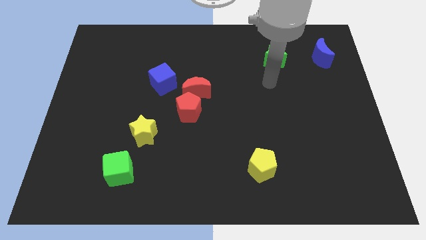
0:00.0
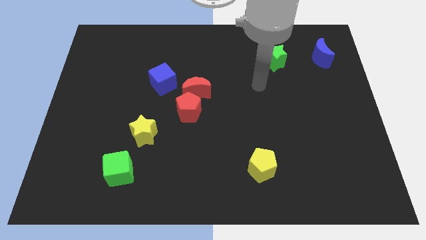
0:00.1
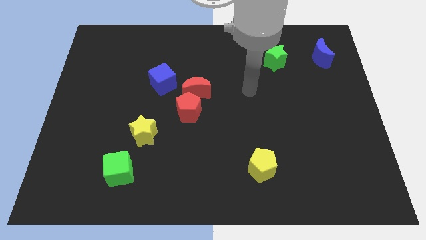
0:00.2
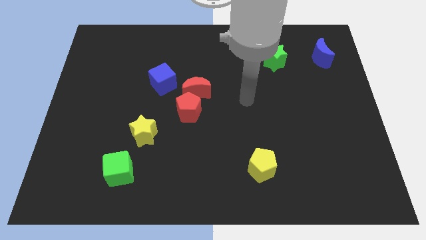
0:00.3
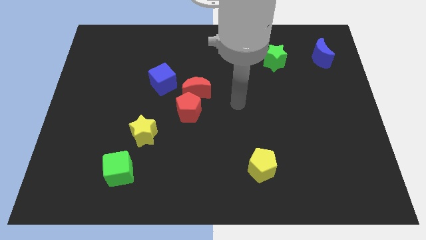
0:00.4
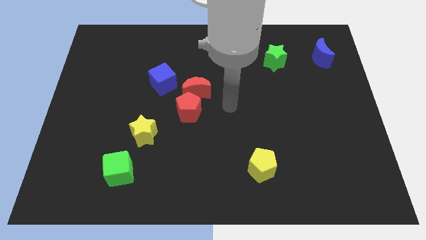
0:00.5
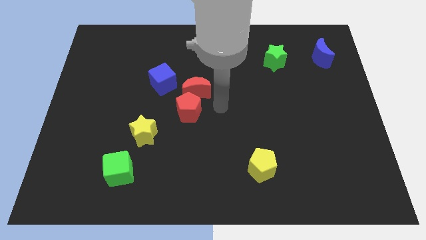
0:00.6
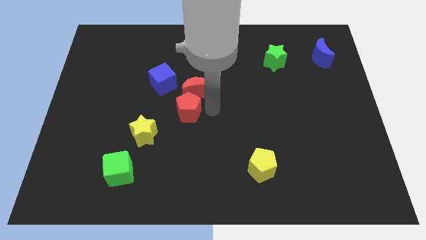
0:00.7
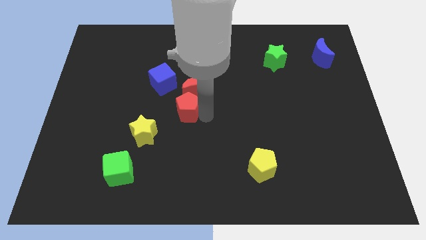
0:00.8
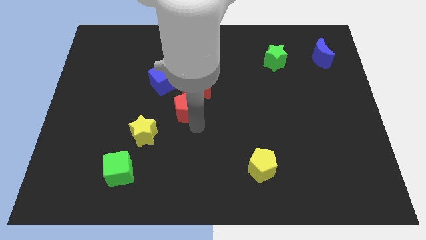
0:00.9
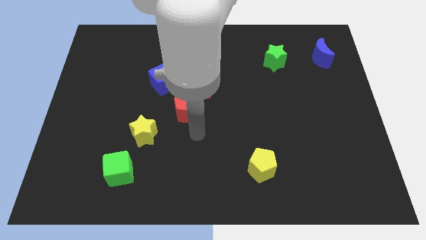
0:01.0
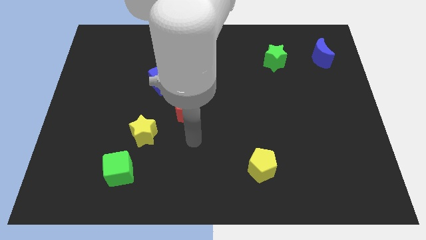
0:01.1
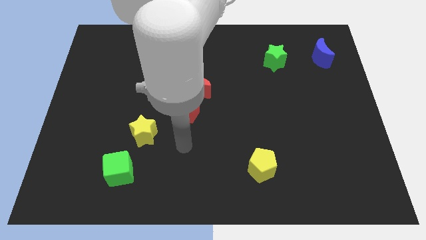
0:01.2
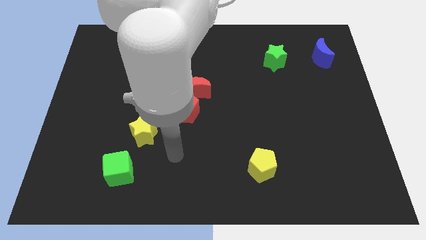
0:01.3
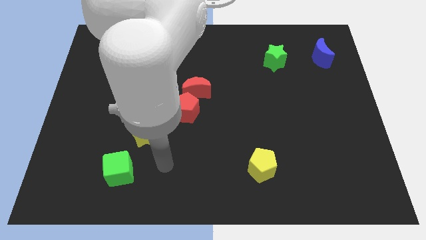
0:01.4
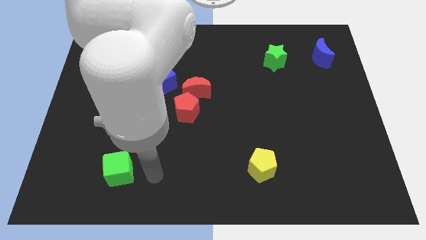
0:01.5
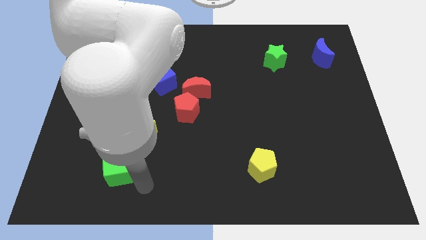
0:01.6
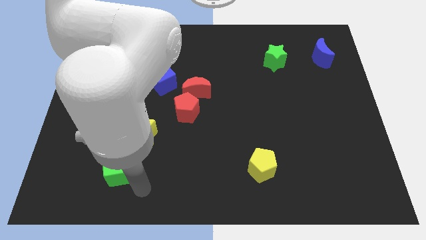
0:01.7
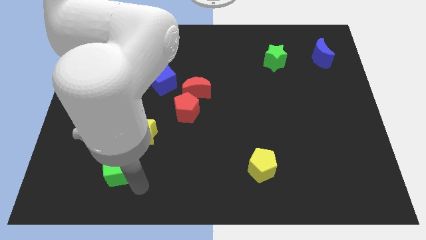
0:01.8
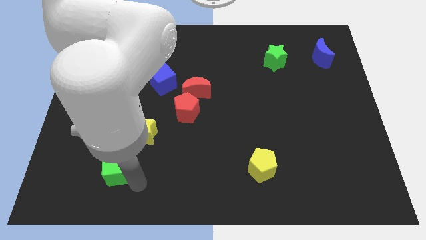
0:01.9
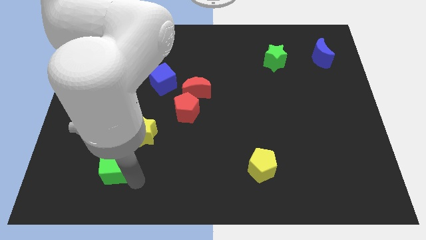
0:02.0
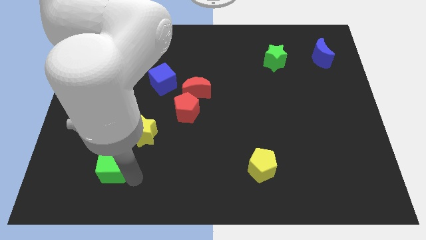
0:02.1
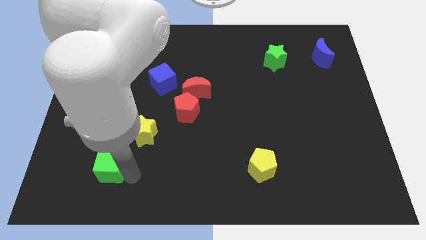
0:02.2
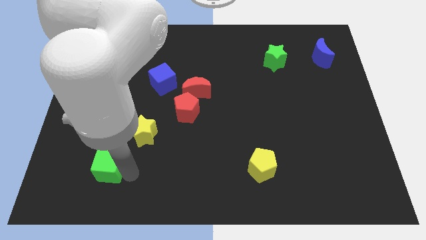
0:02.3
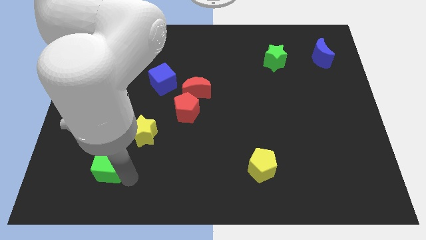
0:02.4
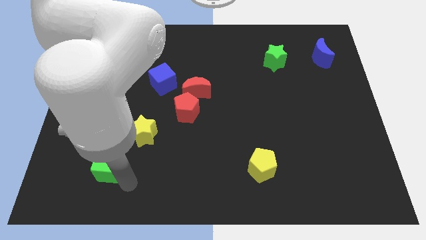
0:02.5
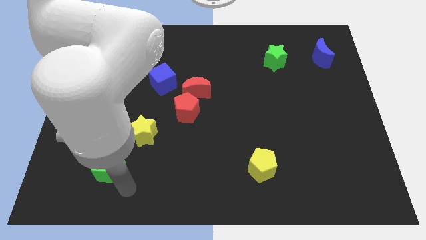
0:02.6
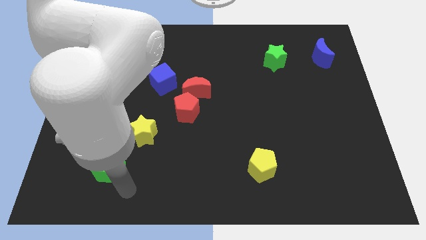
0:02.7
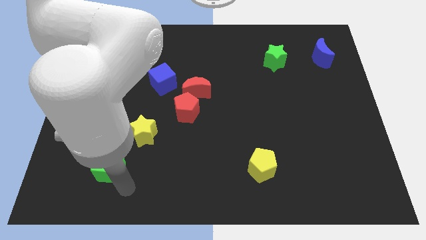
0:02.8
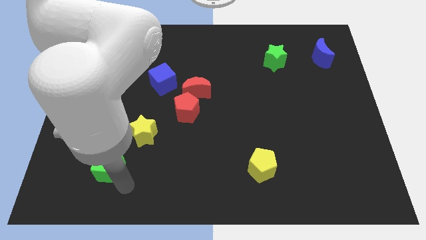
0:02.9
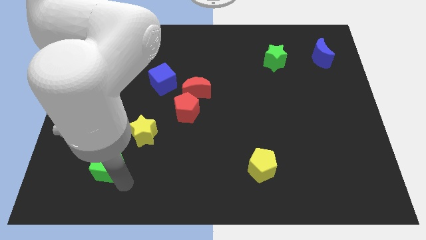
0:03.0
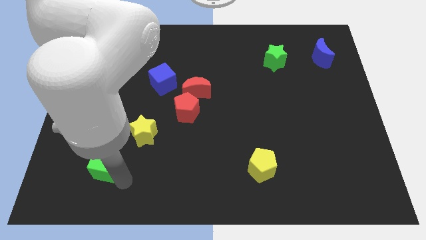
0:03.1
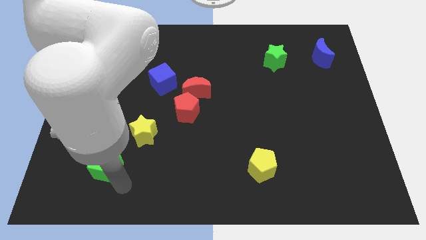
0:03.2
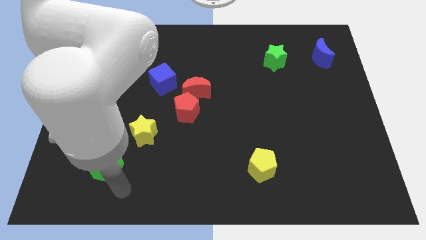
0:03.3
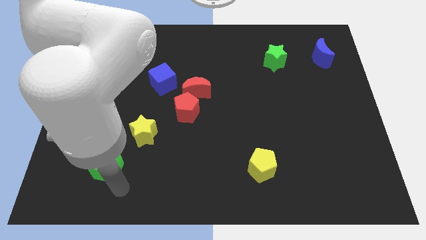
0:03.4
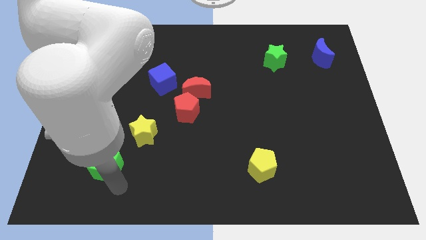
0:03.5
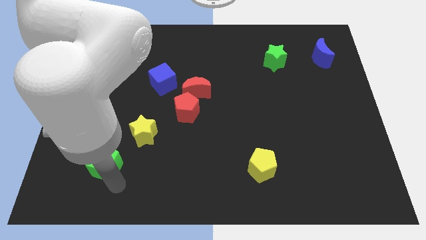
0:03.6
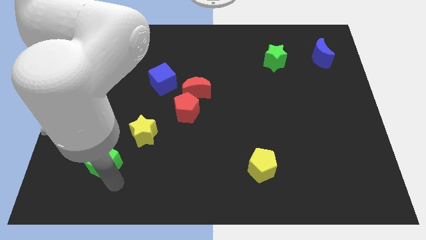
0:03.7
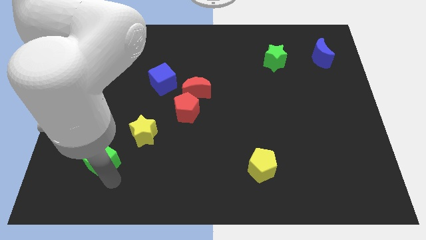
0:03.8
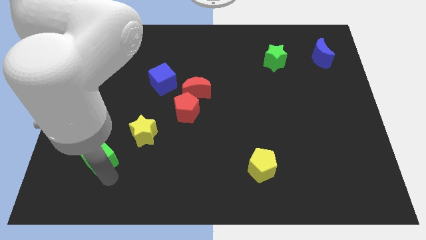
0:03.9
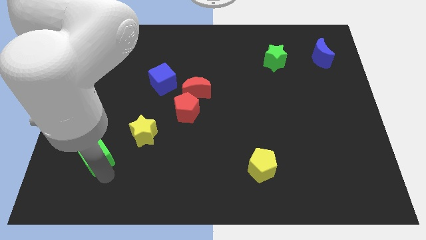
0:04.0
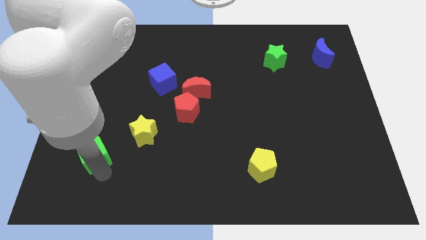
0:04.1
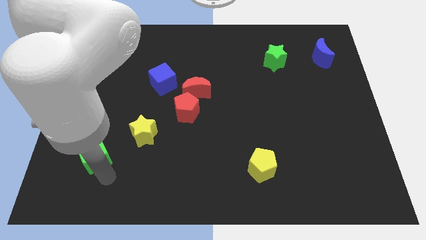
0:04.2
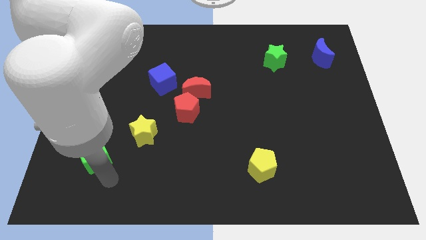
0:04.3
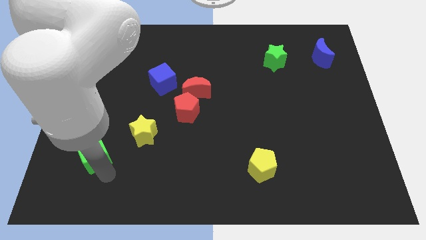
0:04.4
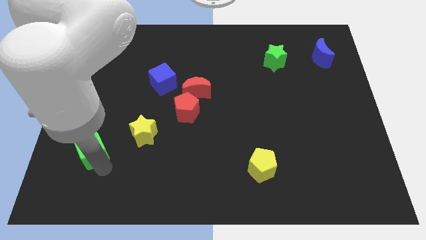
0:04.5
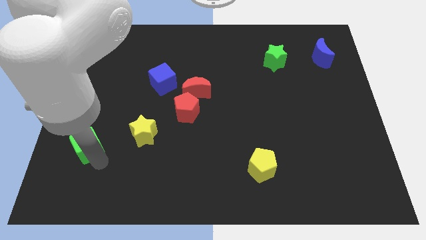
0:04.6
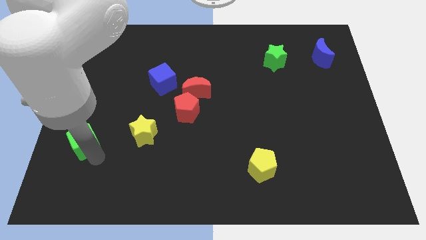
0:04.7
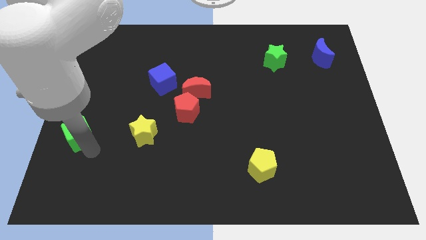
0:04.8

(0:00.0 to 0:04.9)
put the green cube to the center left

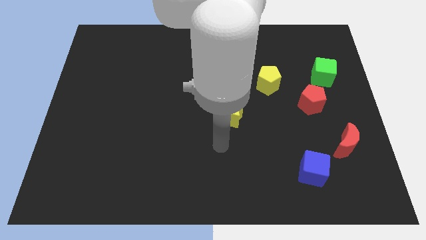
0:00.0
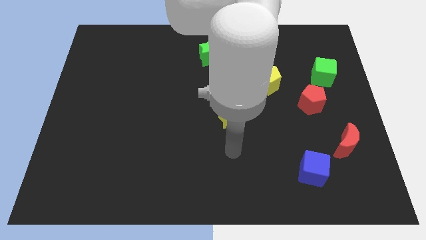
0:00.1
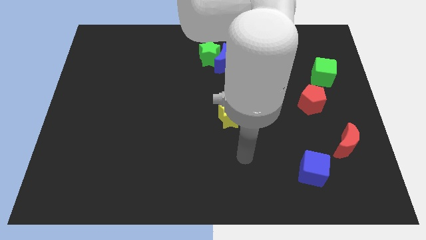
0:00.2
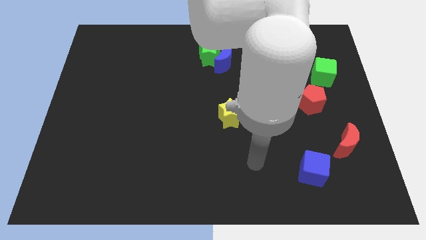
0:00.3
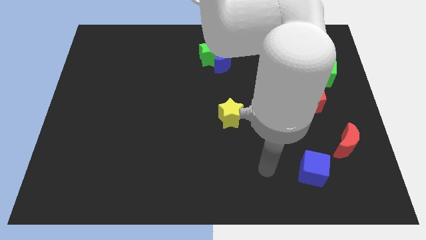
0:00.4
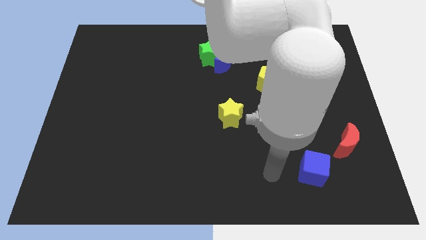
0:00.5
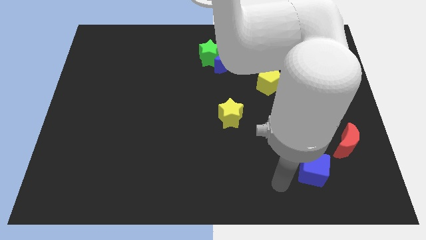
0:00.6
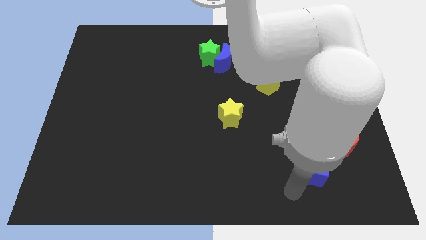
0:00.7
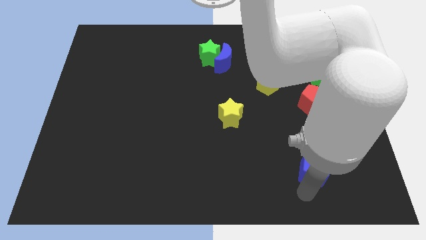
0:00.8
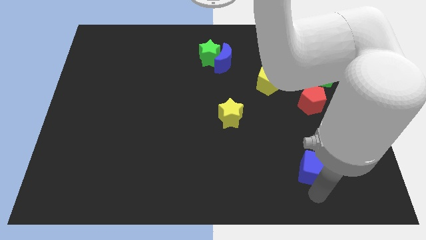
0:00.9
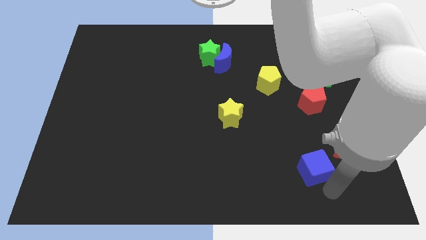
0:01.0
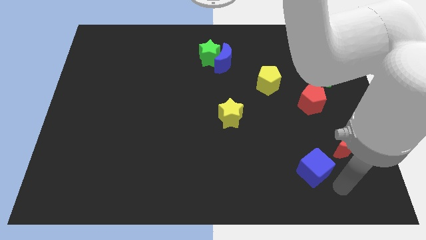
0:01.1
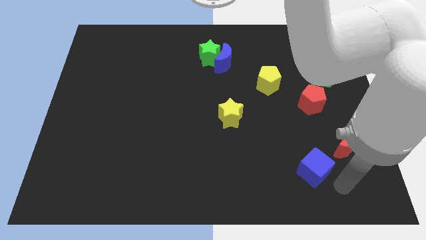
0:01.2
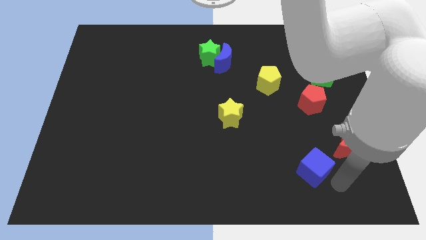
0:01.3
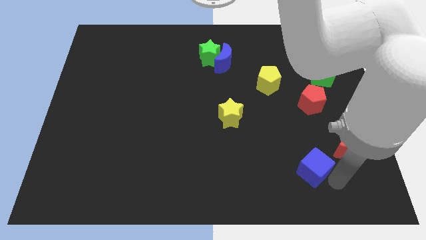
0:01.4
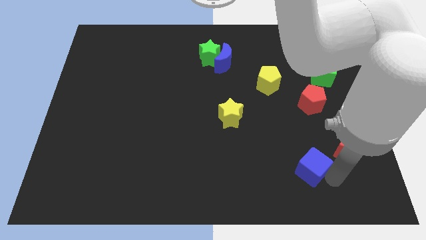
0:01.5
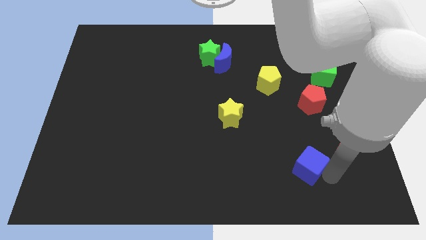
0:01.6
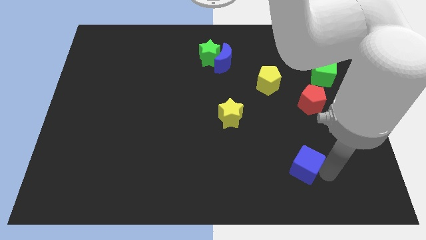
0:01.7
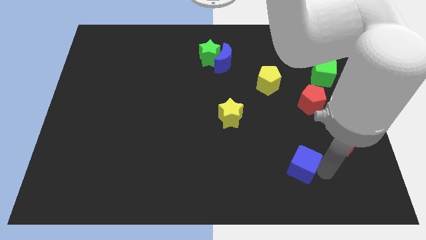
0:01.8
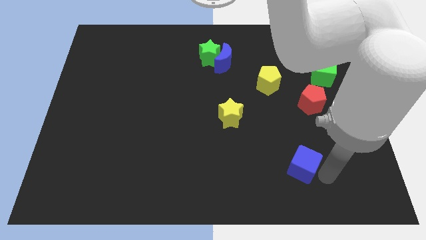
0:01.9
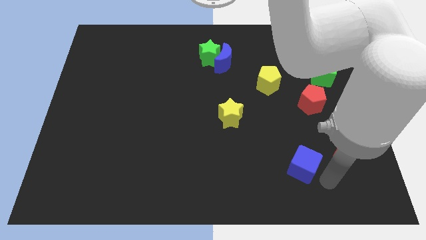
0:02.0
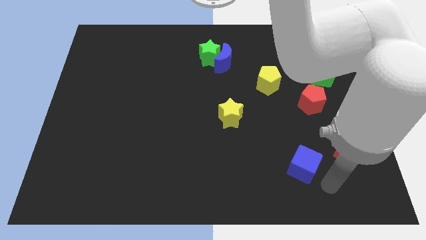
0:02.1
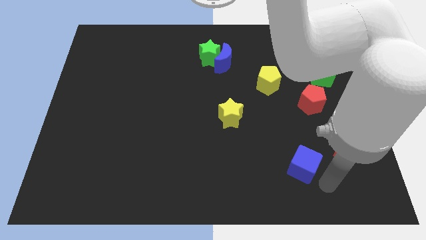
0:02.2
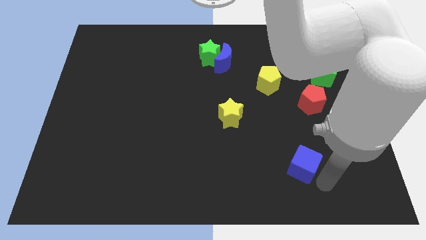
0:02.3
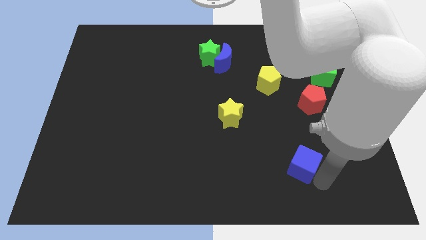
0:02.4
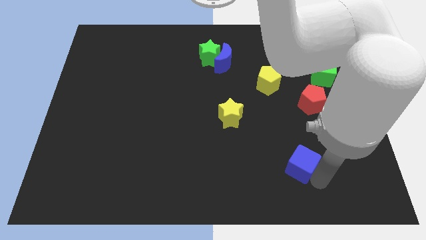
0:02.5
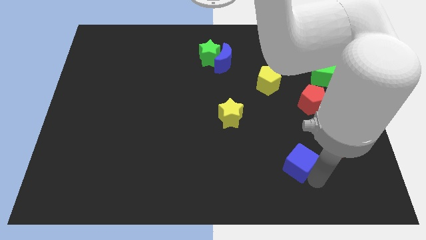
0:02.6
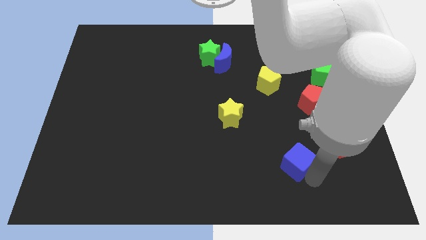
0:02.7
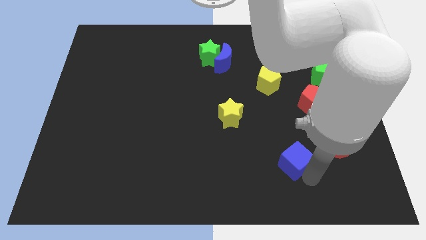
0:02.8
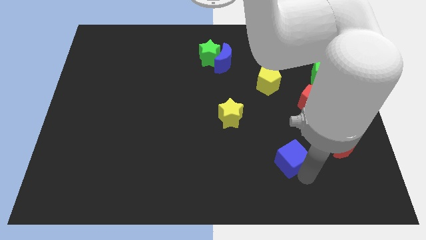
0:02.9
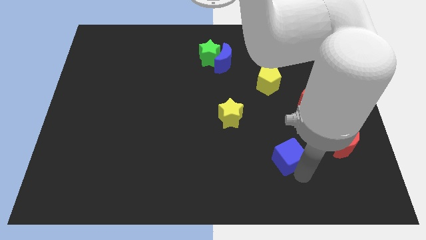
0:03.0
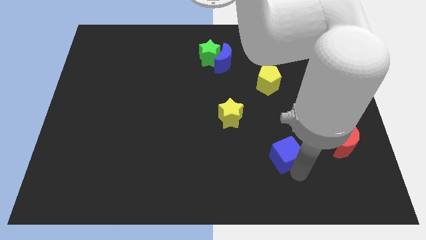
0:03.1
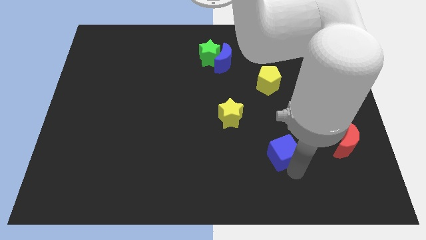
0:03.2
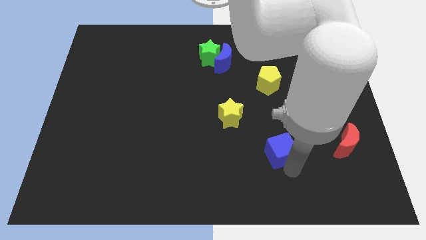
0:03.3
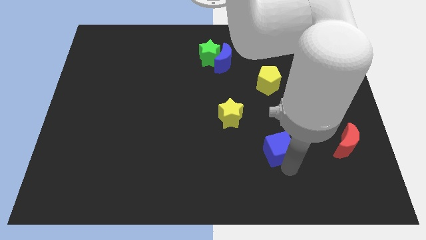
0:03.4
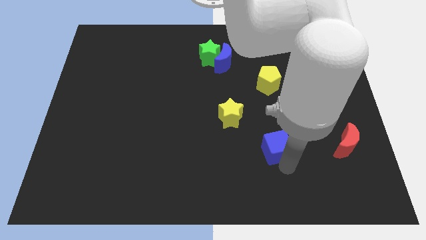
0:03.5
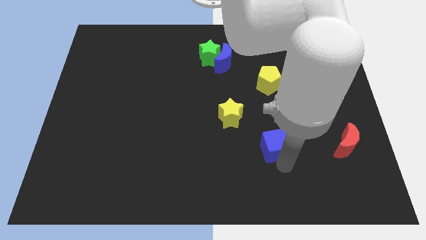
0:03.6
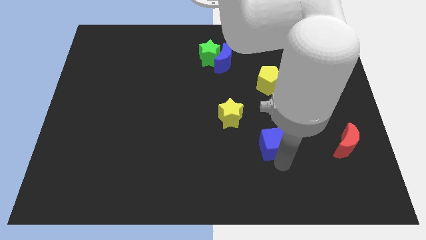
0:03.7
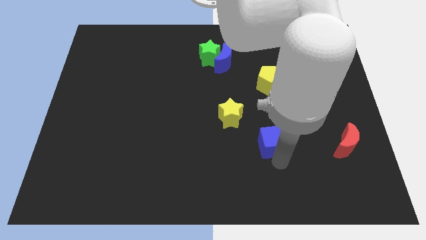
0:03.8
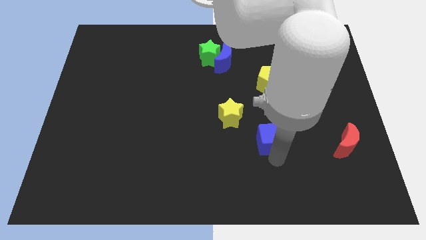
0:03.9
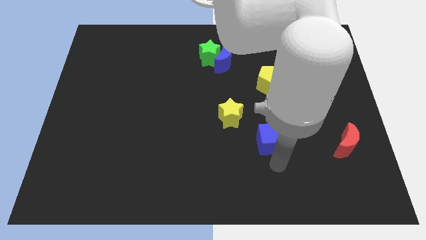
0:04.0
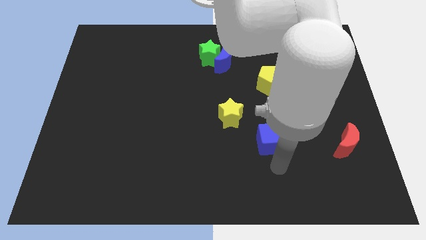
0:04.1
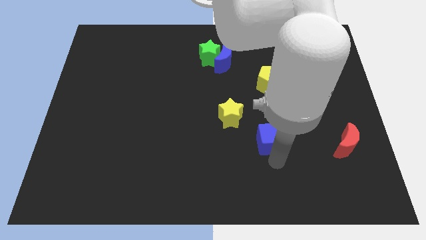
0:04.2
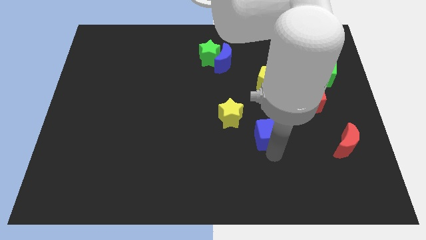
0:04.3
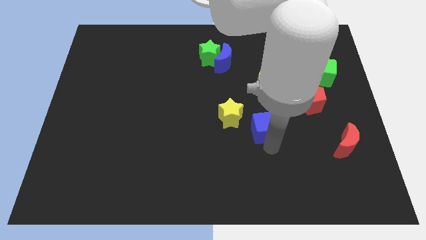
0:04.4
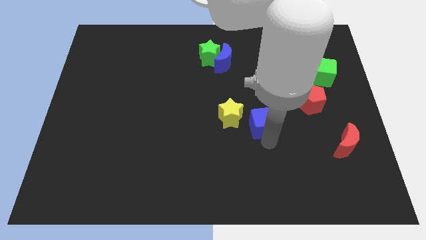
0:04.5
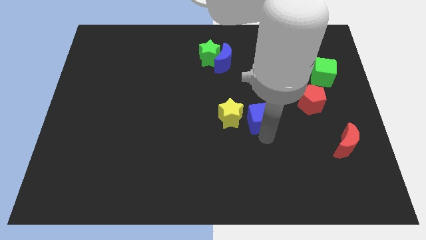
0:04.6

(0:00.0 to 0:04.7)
move the blue cube to the middle of the board
